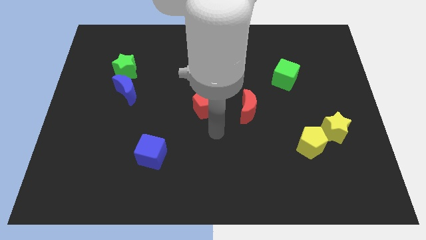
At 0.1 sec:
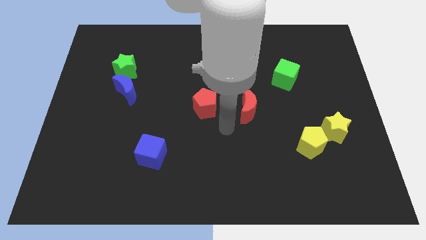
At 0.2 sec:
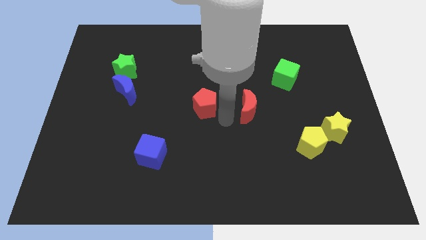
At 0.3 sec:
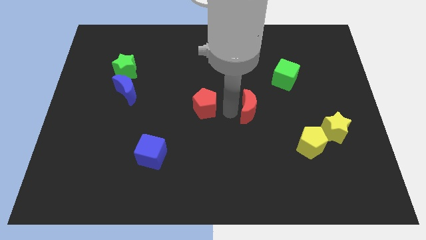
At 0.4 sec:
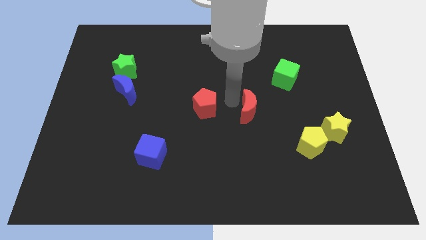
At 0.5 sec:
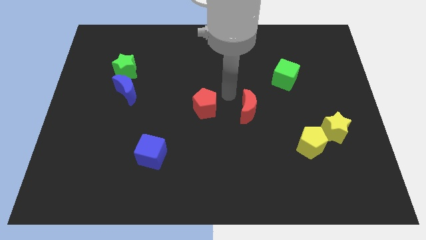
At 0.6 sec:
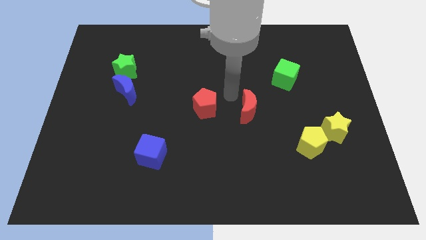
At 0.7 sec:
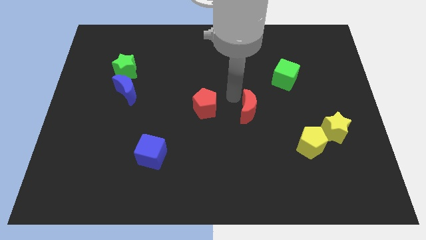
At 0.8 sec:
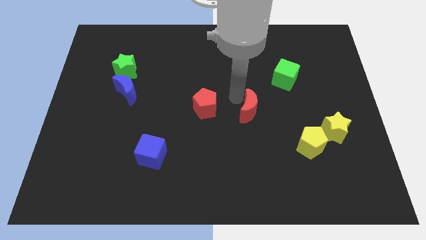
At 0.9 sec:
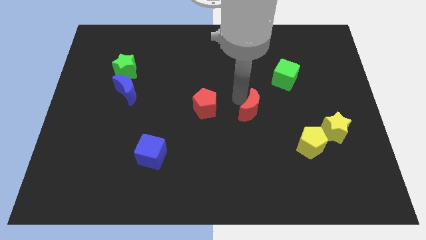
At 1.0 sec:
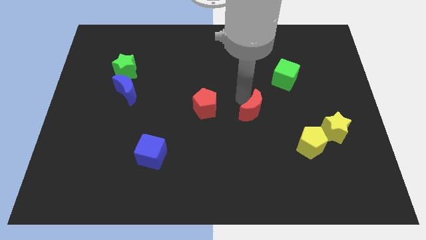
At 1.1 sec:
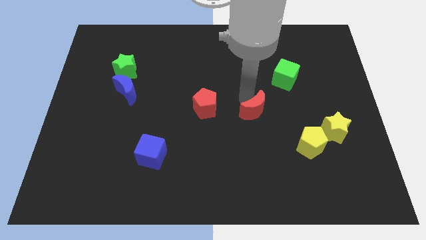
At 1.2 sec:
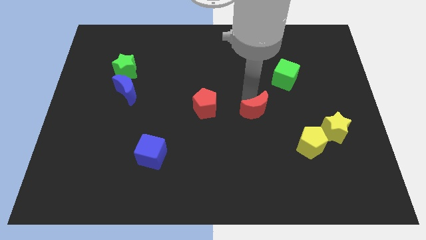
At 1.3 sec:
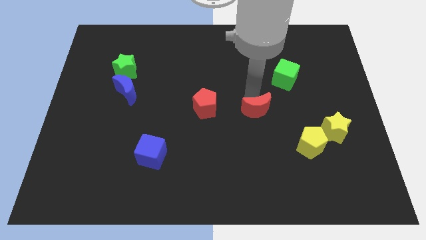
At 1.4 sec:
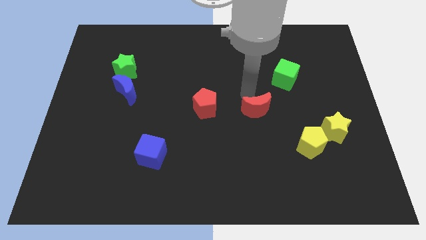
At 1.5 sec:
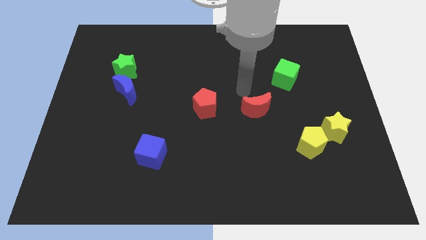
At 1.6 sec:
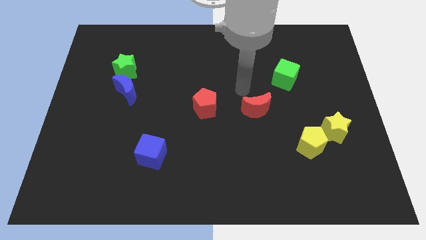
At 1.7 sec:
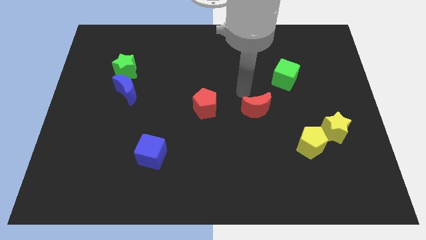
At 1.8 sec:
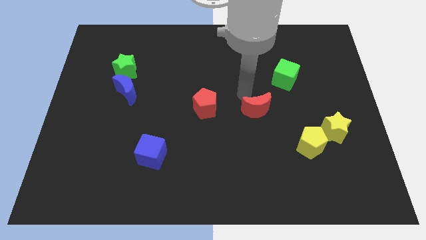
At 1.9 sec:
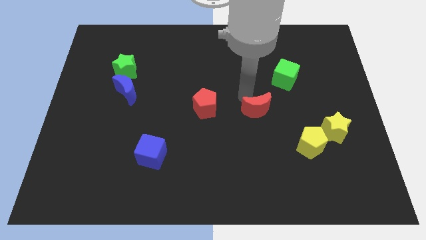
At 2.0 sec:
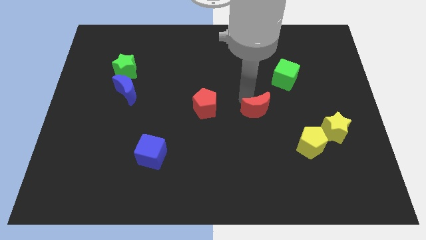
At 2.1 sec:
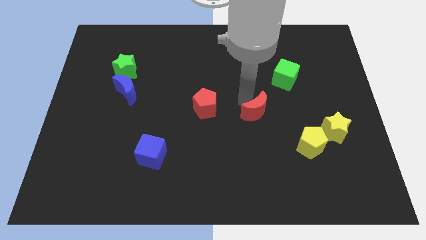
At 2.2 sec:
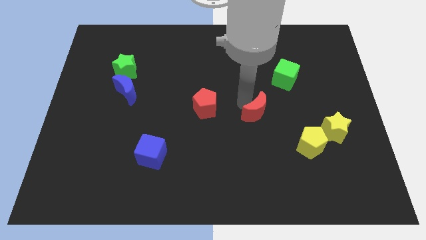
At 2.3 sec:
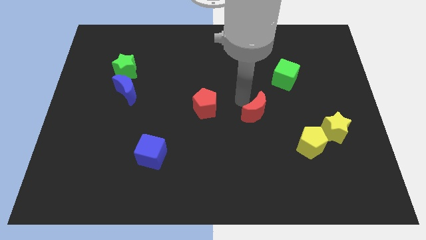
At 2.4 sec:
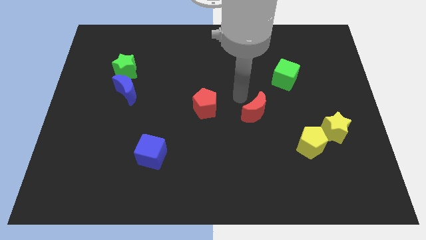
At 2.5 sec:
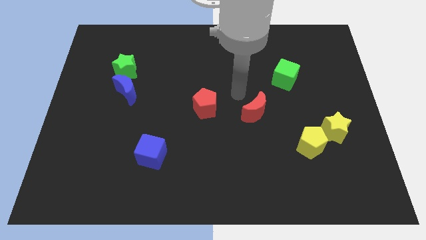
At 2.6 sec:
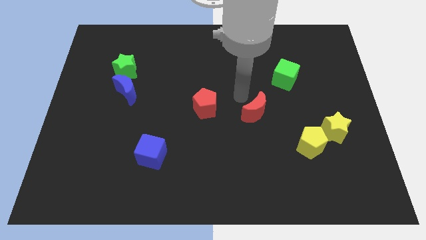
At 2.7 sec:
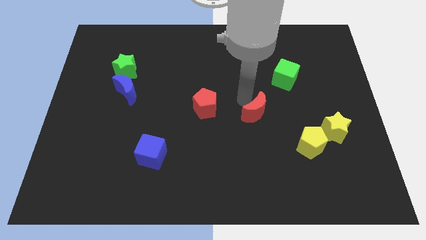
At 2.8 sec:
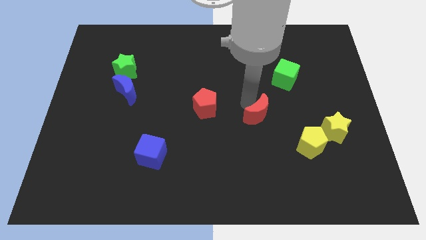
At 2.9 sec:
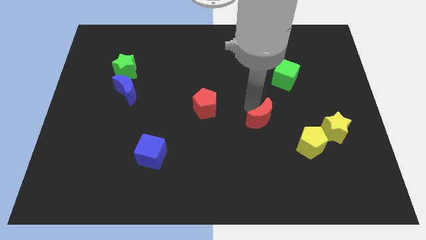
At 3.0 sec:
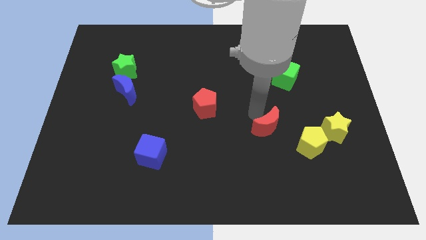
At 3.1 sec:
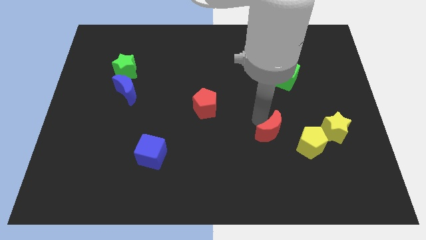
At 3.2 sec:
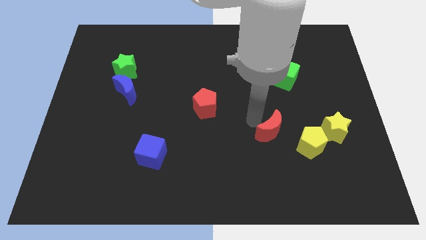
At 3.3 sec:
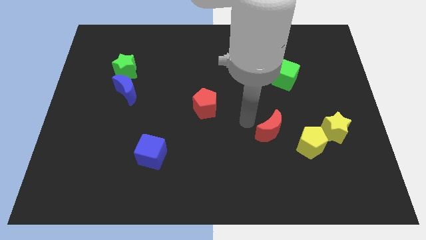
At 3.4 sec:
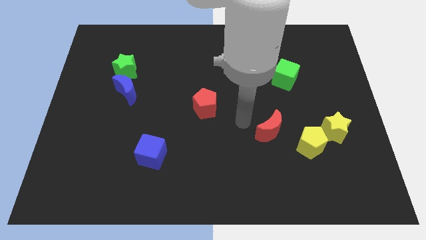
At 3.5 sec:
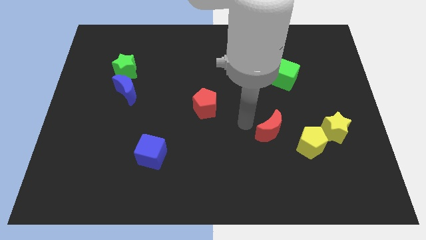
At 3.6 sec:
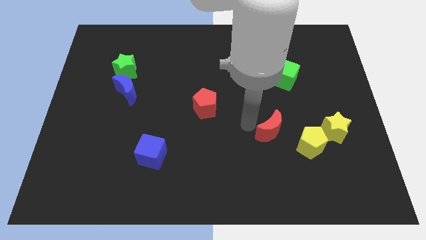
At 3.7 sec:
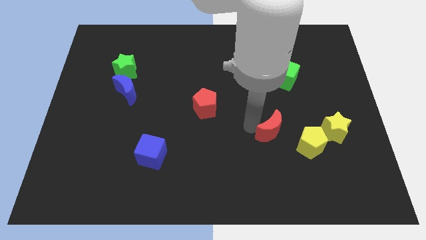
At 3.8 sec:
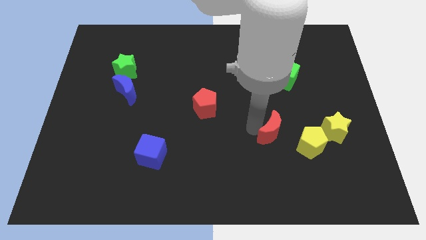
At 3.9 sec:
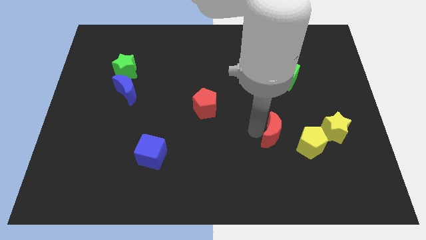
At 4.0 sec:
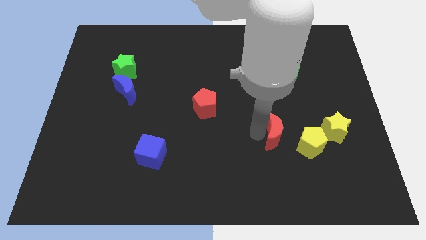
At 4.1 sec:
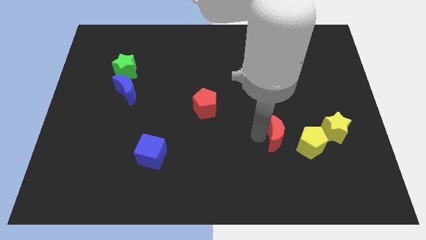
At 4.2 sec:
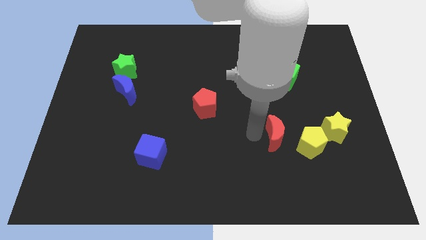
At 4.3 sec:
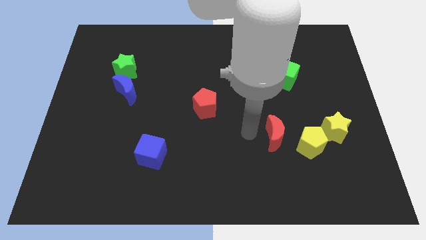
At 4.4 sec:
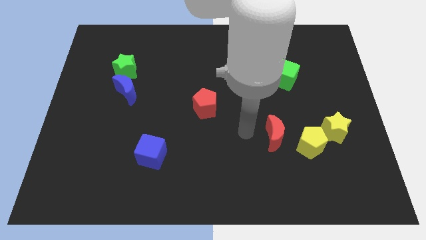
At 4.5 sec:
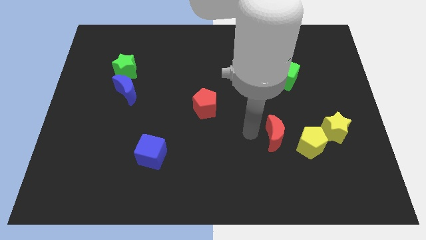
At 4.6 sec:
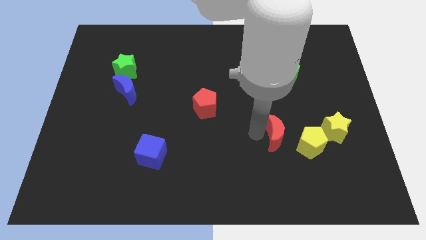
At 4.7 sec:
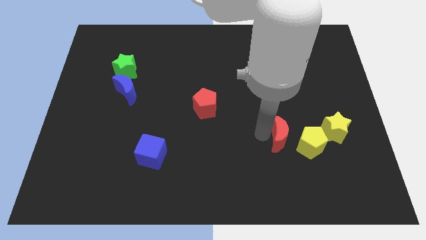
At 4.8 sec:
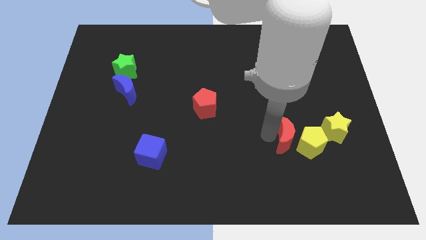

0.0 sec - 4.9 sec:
push the red moon to the yellow pentagon

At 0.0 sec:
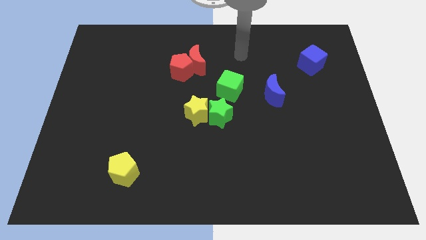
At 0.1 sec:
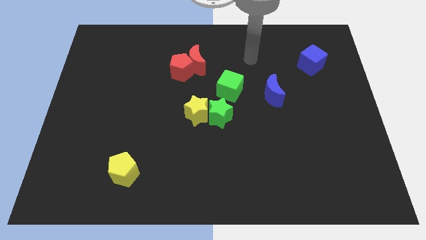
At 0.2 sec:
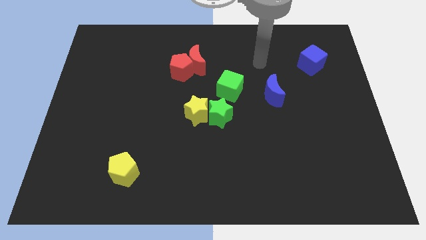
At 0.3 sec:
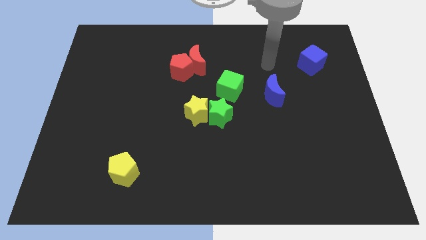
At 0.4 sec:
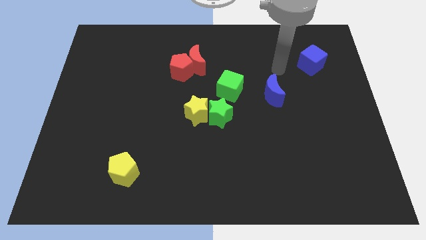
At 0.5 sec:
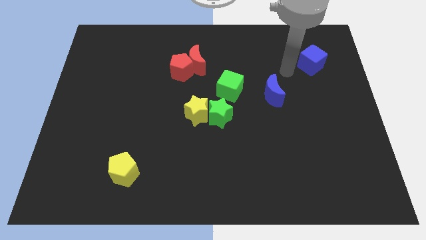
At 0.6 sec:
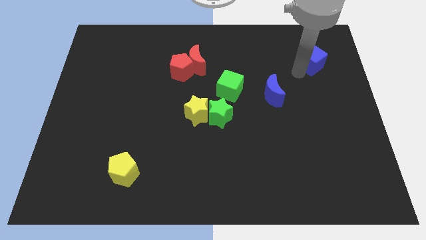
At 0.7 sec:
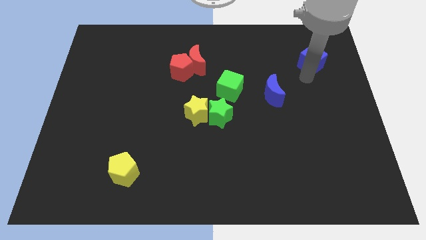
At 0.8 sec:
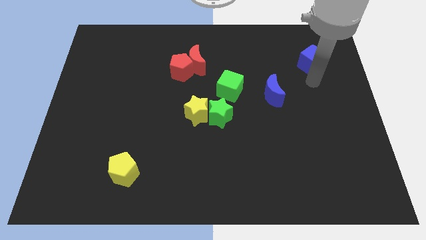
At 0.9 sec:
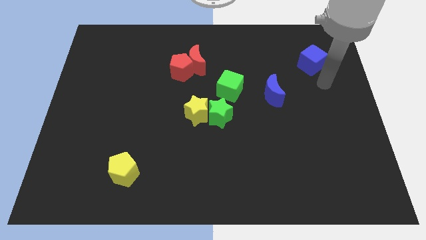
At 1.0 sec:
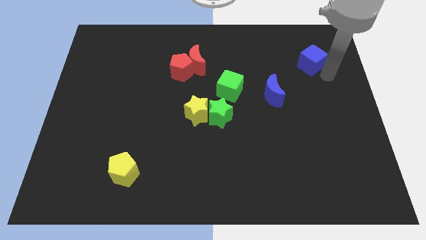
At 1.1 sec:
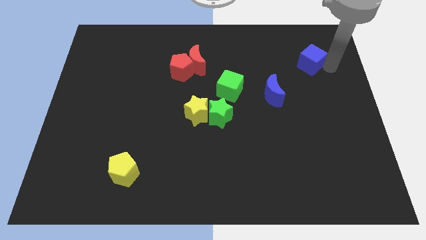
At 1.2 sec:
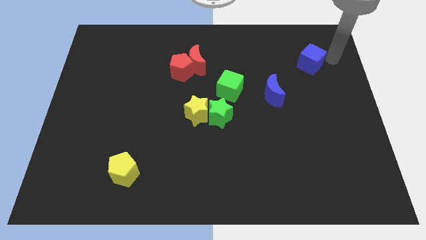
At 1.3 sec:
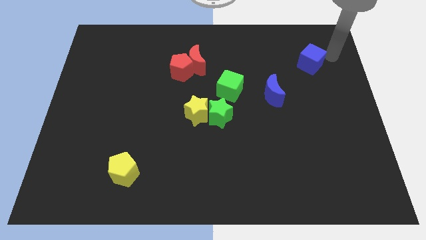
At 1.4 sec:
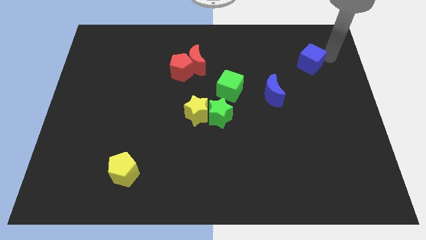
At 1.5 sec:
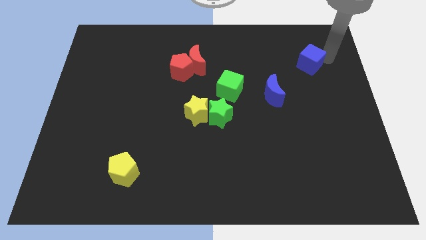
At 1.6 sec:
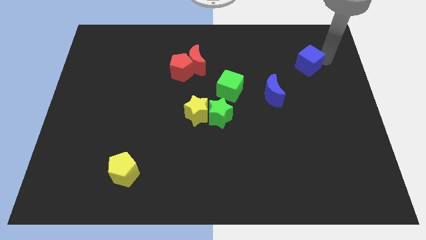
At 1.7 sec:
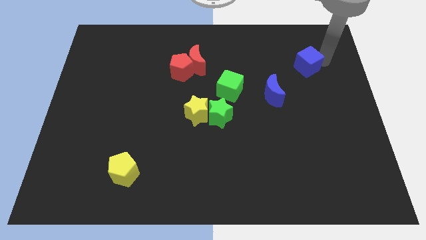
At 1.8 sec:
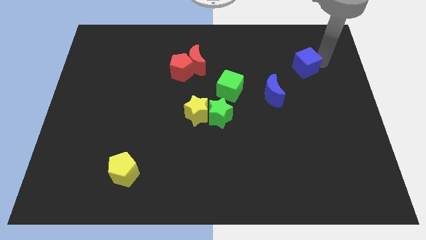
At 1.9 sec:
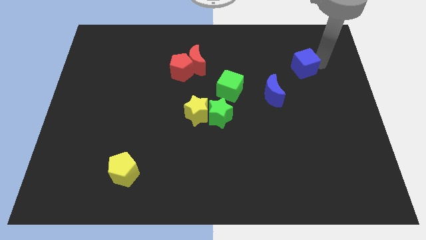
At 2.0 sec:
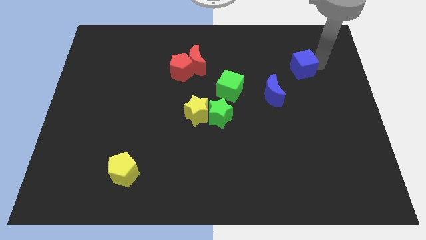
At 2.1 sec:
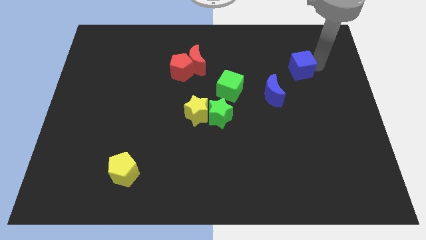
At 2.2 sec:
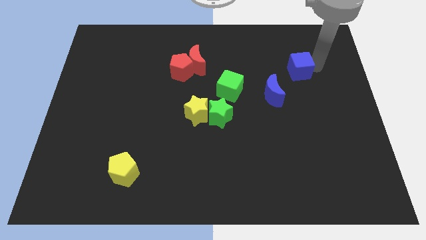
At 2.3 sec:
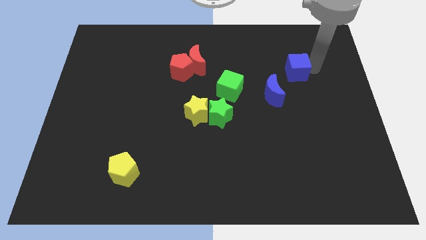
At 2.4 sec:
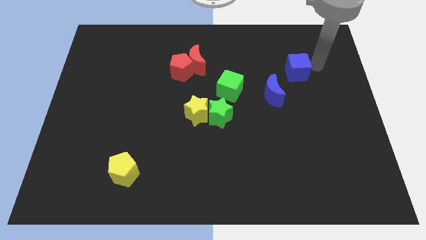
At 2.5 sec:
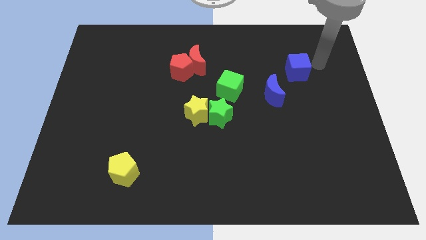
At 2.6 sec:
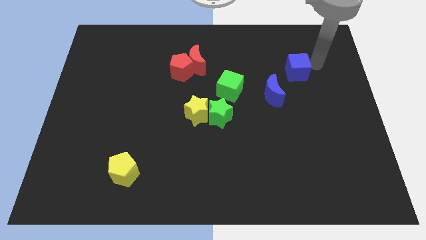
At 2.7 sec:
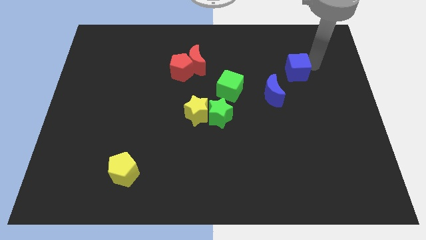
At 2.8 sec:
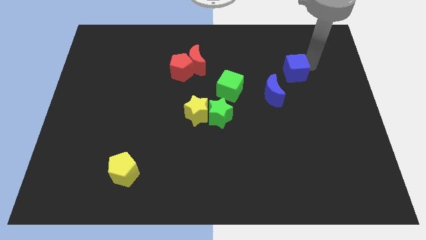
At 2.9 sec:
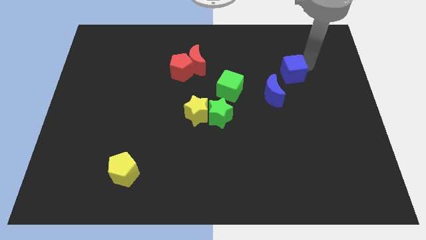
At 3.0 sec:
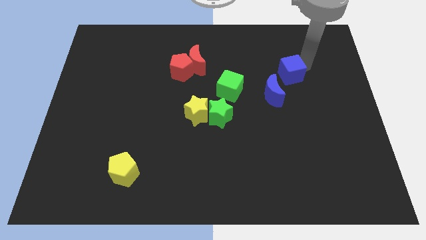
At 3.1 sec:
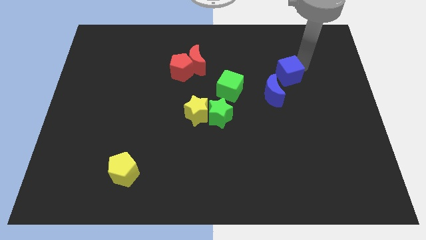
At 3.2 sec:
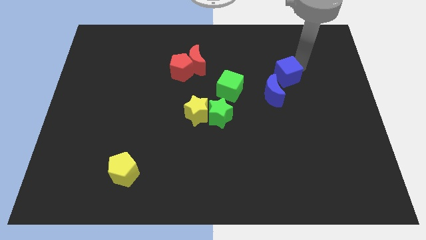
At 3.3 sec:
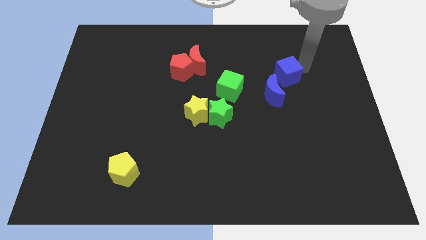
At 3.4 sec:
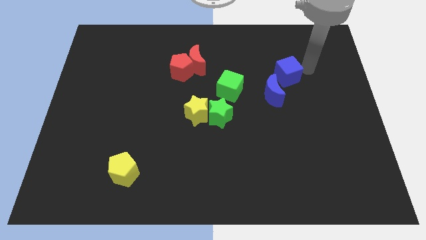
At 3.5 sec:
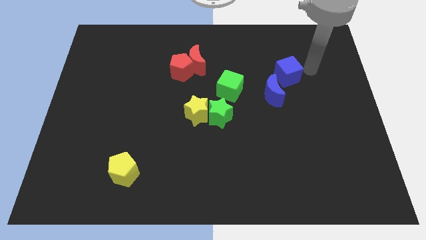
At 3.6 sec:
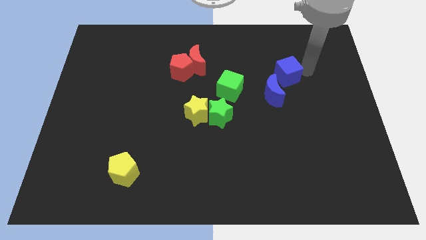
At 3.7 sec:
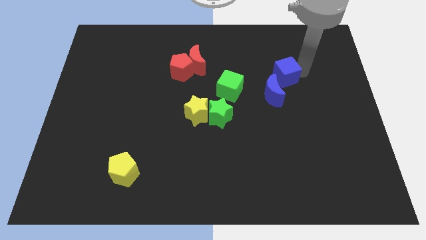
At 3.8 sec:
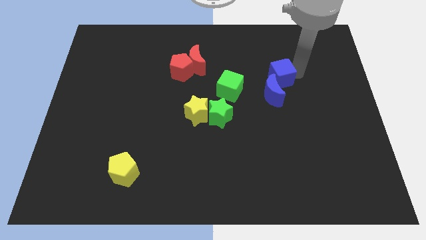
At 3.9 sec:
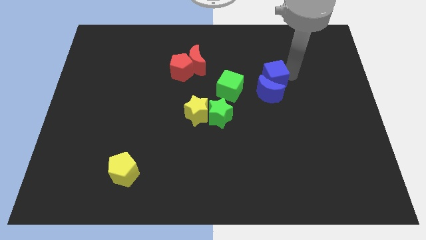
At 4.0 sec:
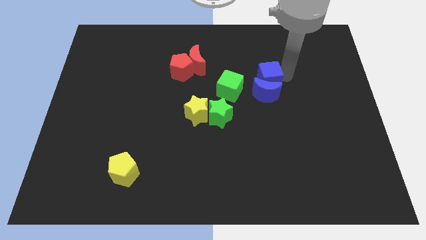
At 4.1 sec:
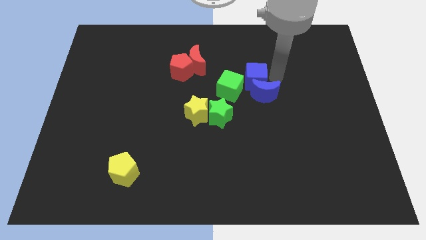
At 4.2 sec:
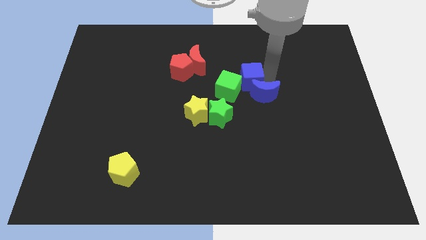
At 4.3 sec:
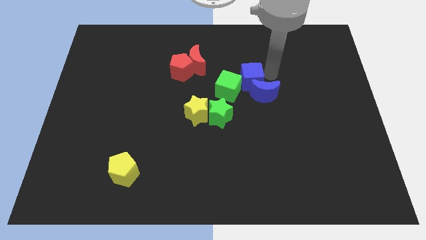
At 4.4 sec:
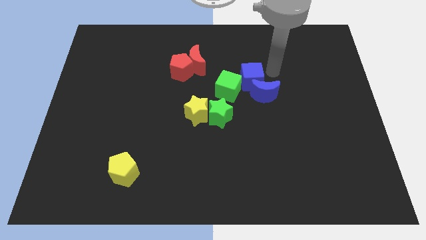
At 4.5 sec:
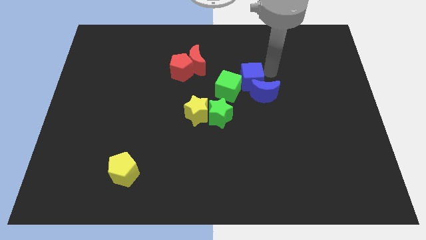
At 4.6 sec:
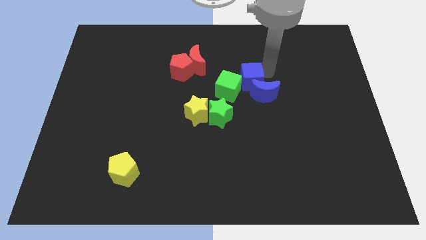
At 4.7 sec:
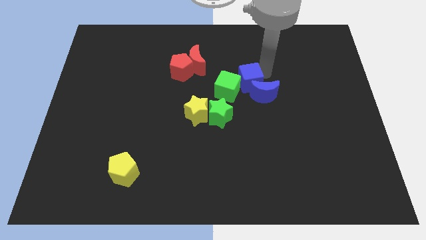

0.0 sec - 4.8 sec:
put the blue cube close to the green cube
